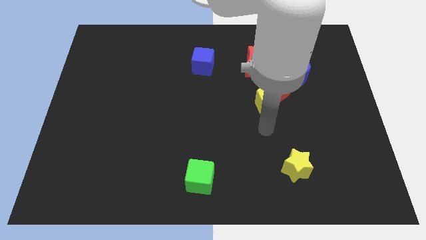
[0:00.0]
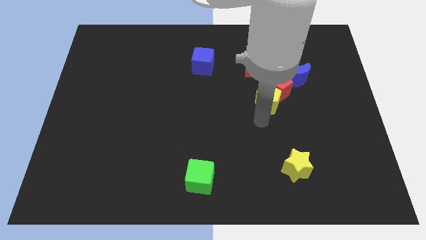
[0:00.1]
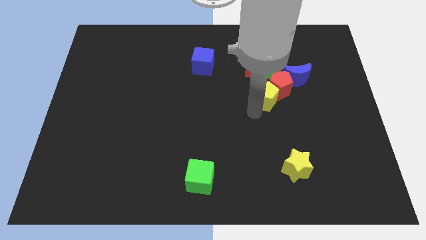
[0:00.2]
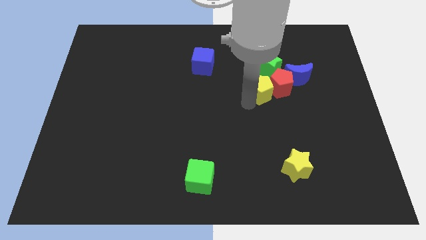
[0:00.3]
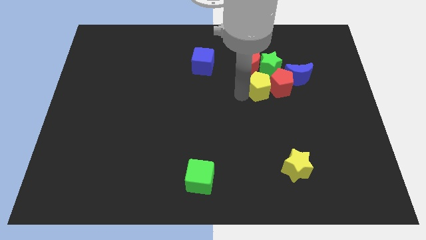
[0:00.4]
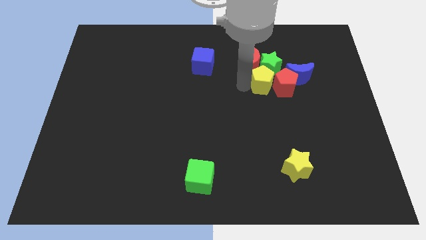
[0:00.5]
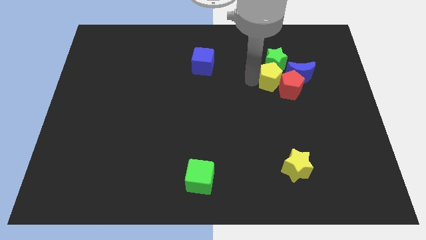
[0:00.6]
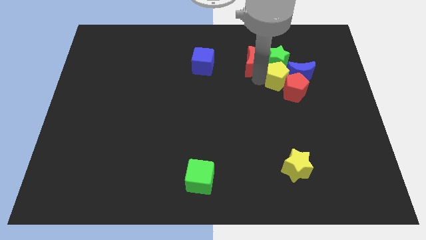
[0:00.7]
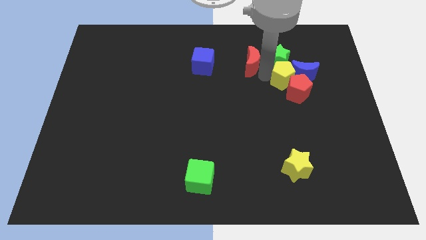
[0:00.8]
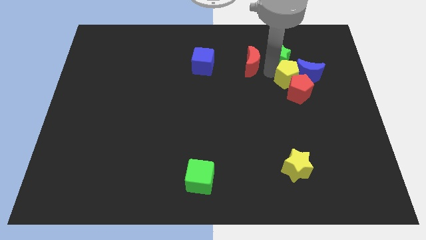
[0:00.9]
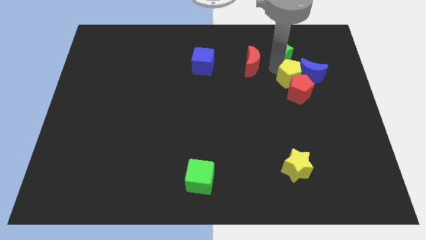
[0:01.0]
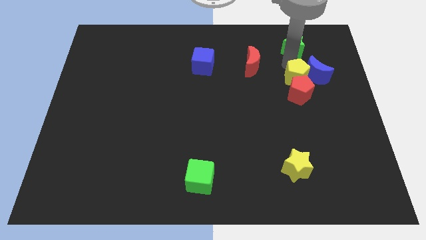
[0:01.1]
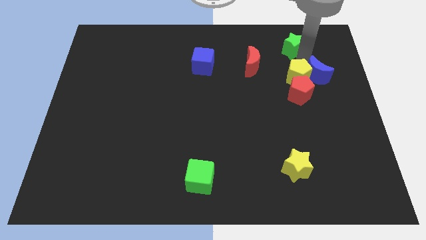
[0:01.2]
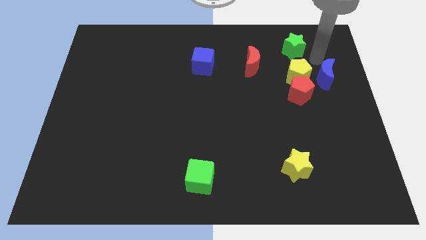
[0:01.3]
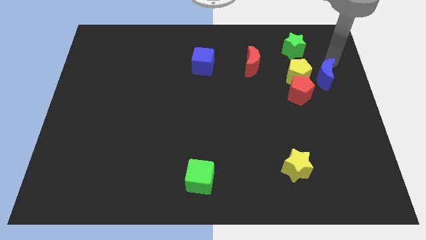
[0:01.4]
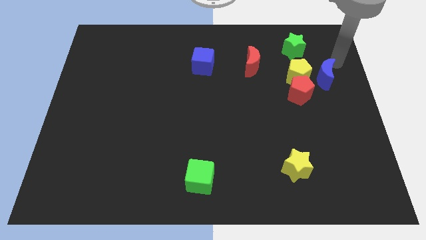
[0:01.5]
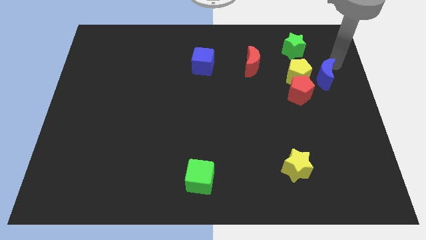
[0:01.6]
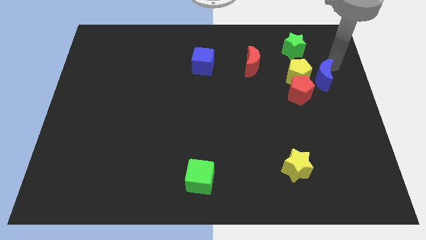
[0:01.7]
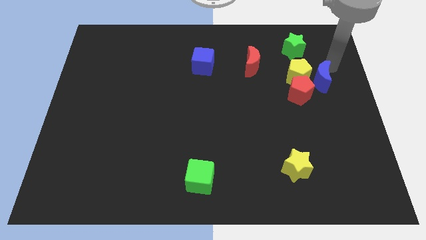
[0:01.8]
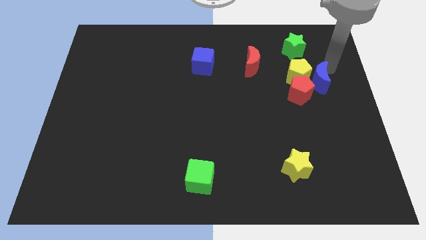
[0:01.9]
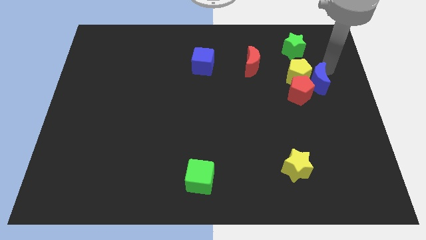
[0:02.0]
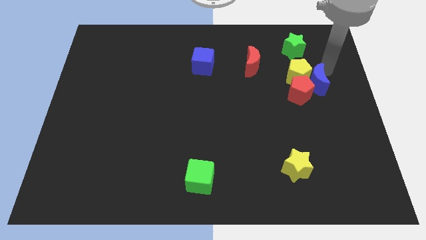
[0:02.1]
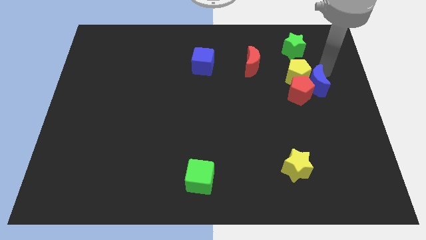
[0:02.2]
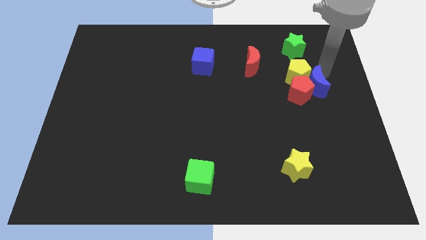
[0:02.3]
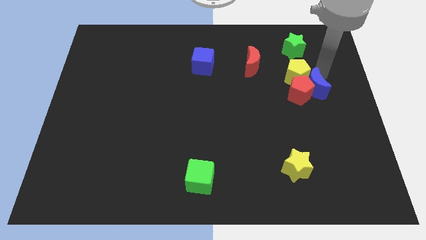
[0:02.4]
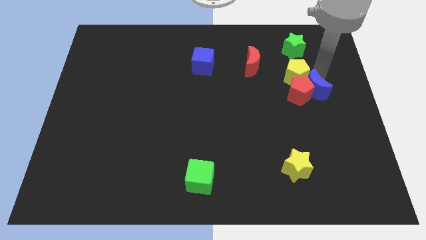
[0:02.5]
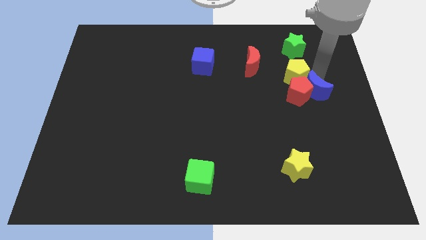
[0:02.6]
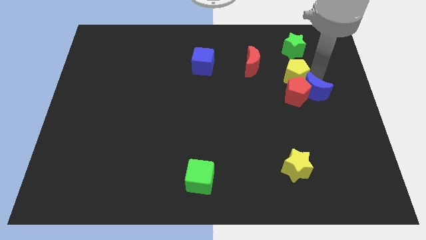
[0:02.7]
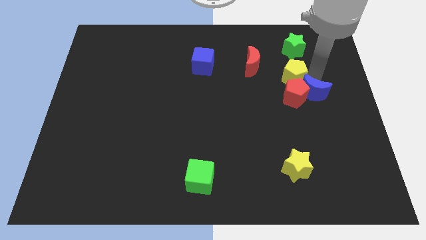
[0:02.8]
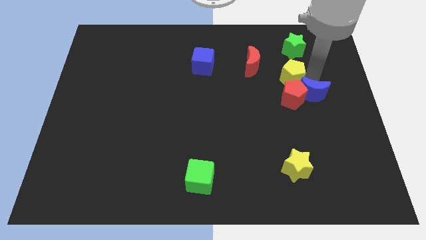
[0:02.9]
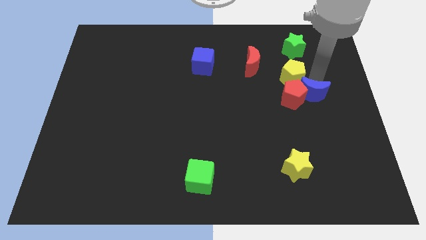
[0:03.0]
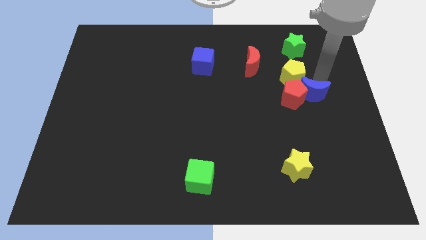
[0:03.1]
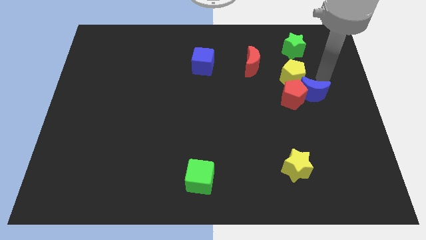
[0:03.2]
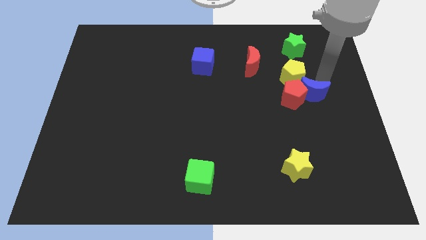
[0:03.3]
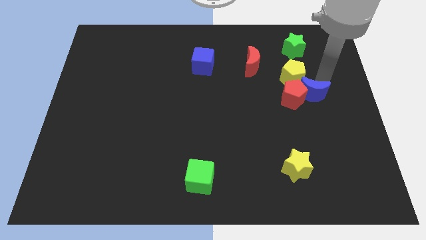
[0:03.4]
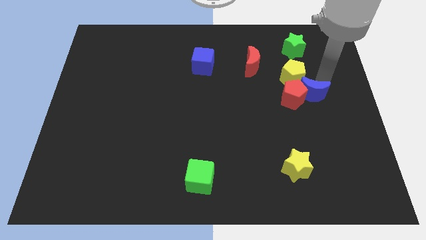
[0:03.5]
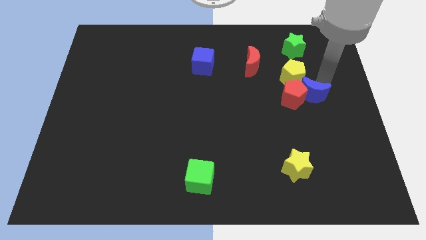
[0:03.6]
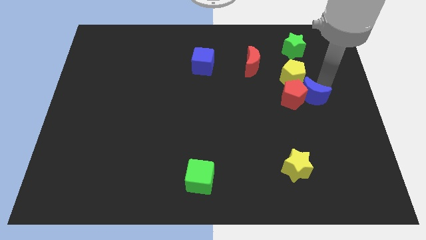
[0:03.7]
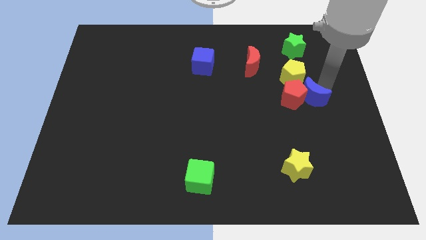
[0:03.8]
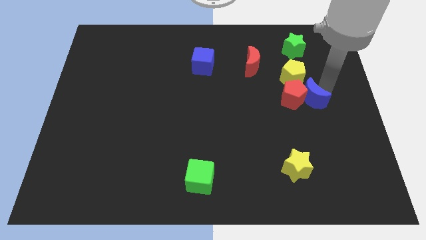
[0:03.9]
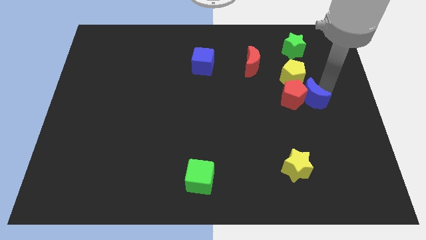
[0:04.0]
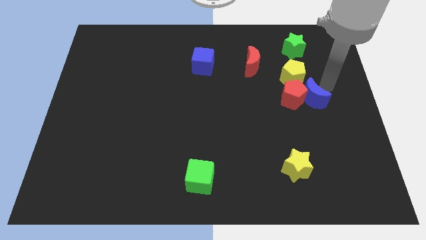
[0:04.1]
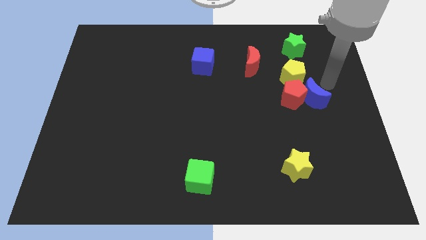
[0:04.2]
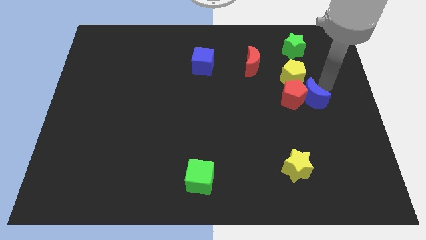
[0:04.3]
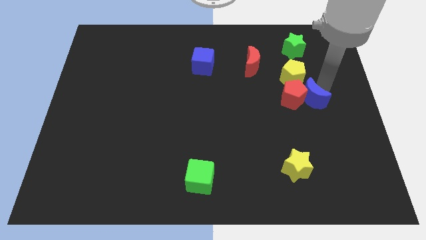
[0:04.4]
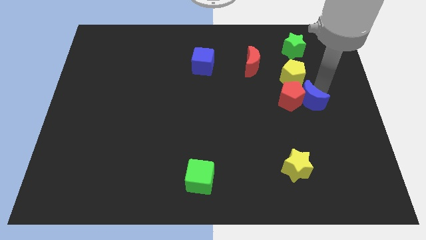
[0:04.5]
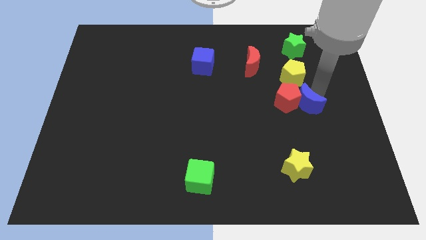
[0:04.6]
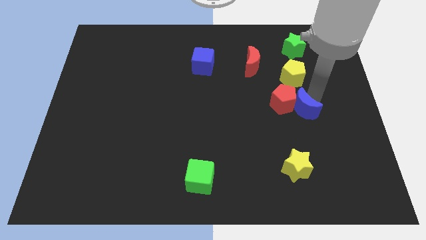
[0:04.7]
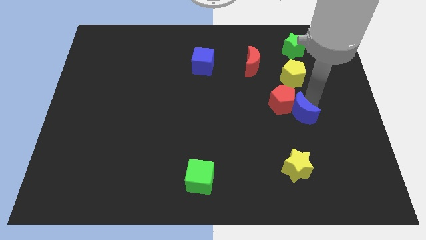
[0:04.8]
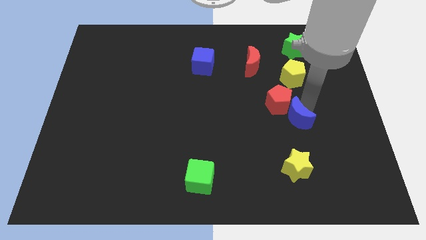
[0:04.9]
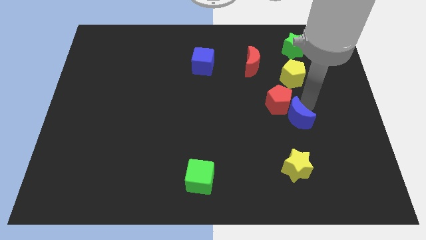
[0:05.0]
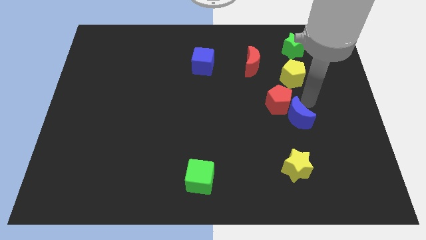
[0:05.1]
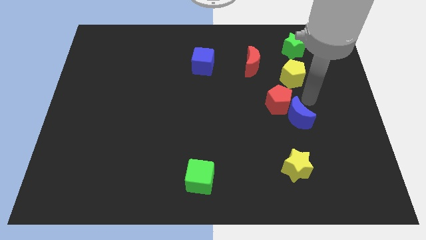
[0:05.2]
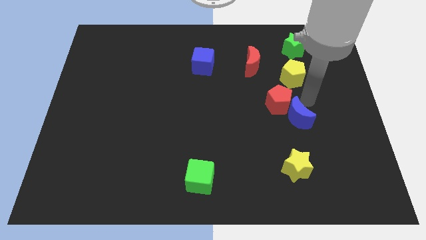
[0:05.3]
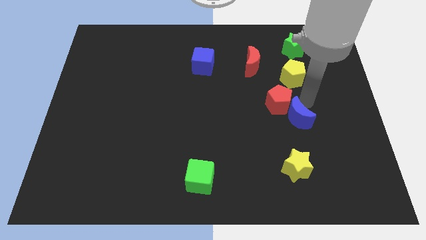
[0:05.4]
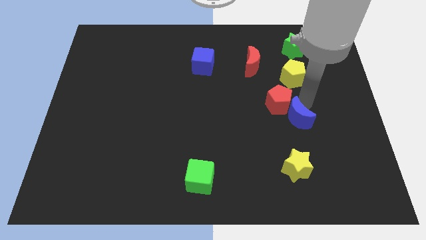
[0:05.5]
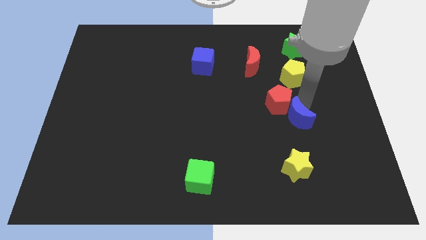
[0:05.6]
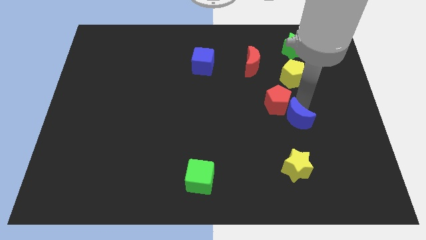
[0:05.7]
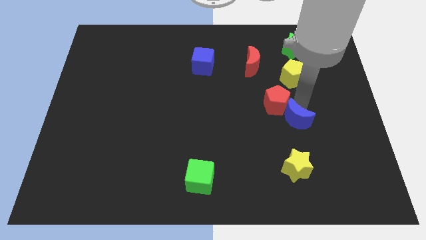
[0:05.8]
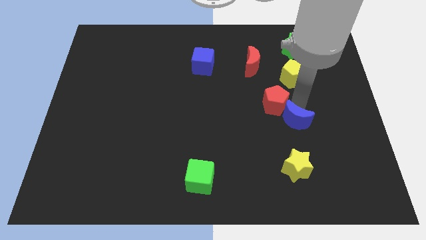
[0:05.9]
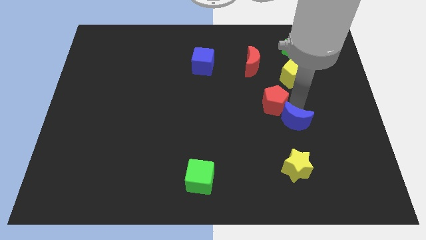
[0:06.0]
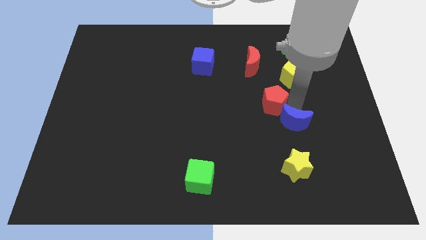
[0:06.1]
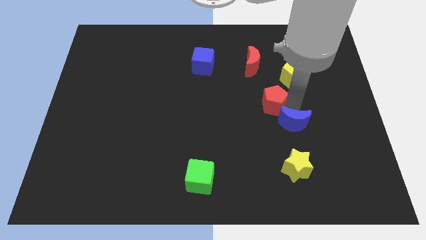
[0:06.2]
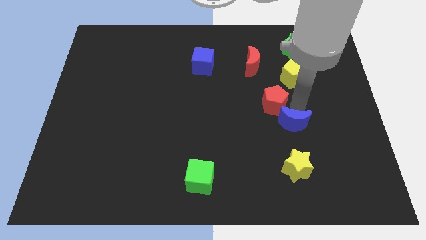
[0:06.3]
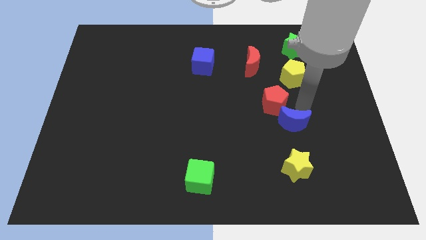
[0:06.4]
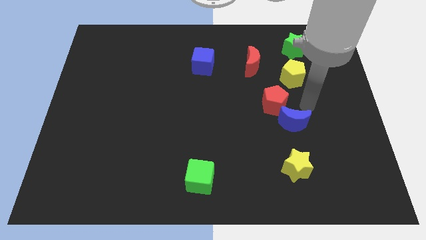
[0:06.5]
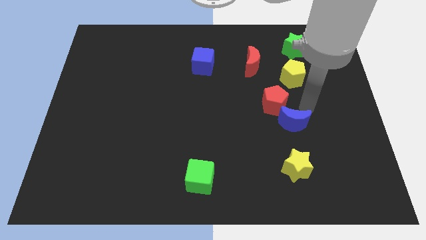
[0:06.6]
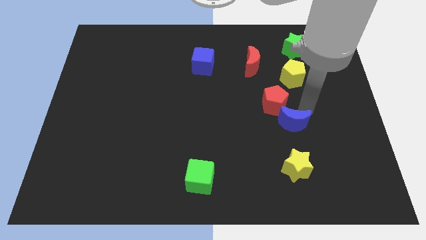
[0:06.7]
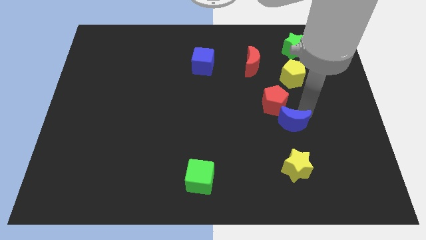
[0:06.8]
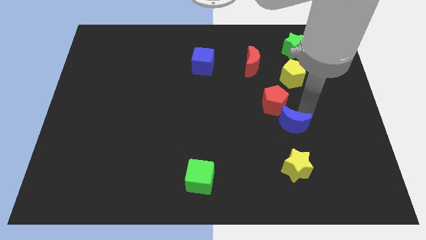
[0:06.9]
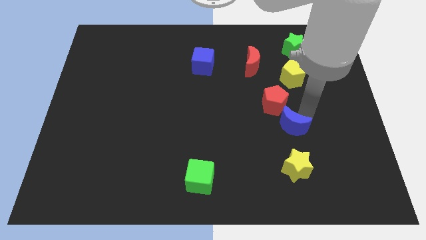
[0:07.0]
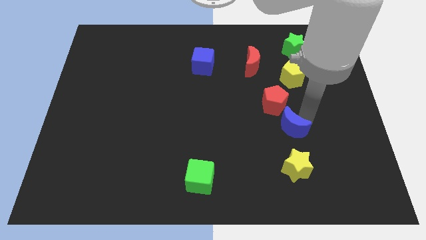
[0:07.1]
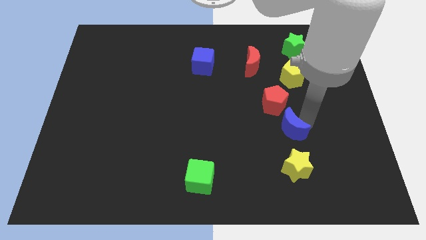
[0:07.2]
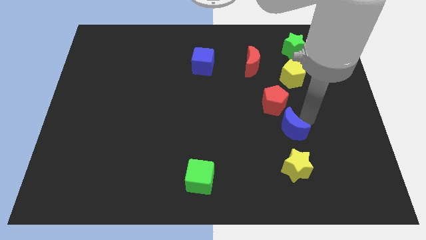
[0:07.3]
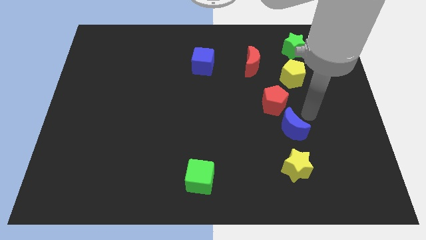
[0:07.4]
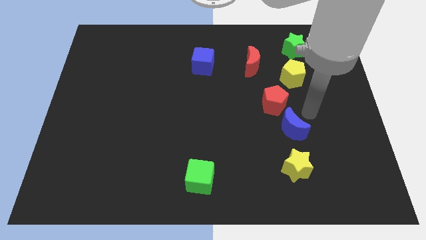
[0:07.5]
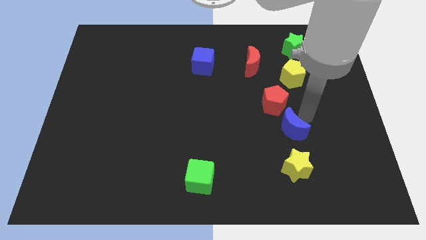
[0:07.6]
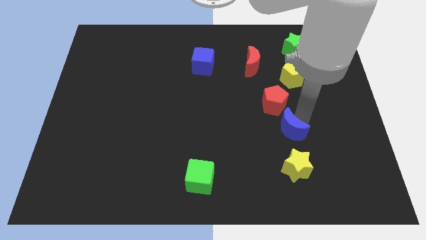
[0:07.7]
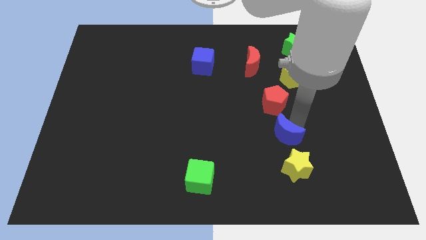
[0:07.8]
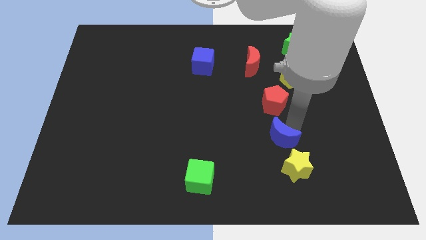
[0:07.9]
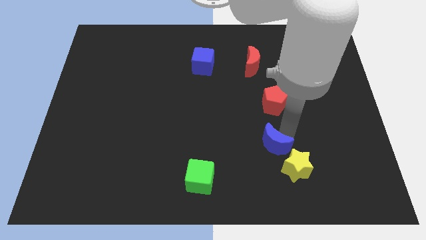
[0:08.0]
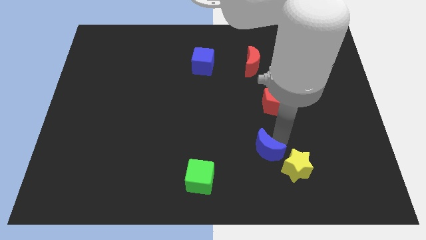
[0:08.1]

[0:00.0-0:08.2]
push the blue moon just left of the yellow star
